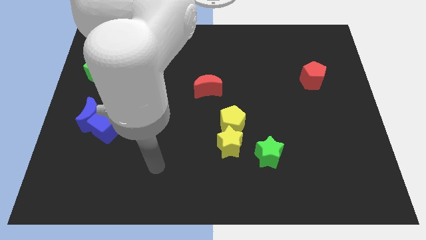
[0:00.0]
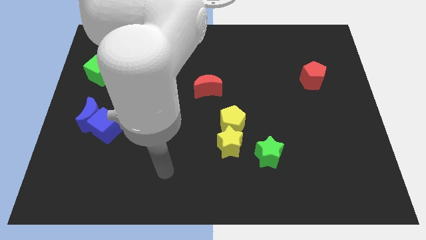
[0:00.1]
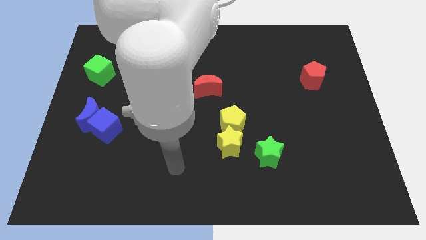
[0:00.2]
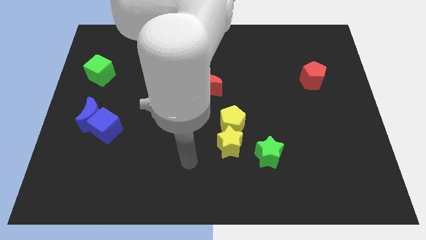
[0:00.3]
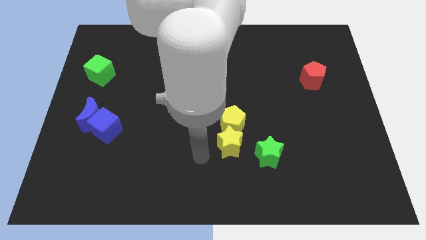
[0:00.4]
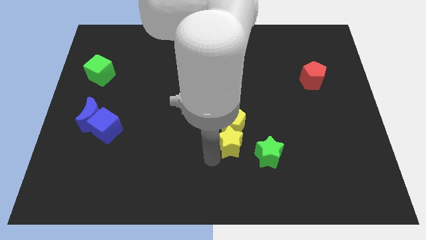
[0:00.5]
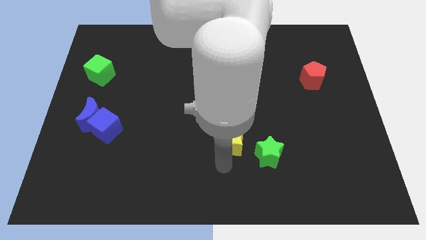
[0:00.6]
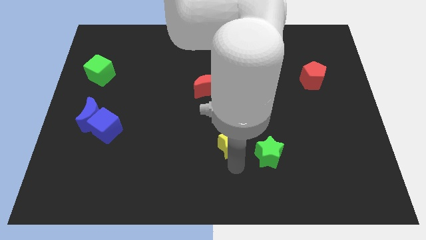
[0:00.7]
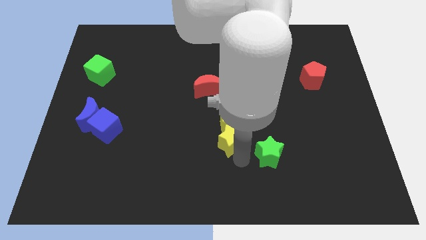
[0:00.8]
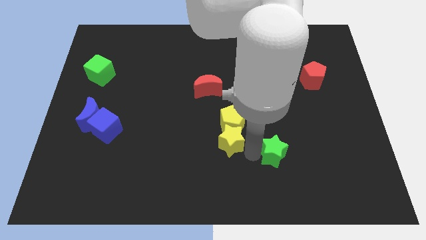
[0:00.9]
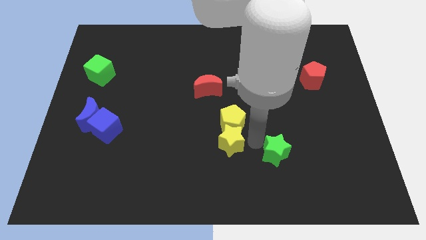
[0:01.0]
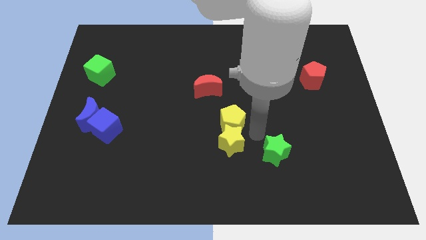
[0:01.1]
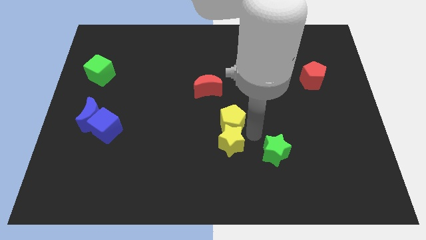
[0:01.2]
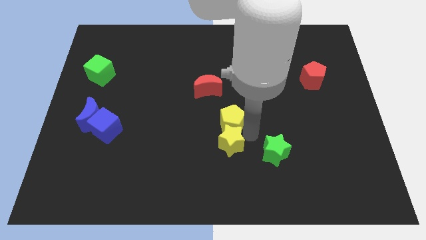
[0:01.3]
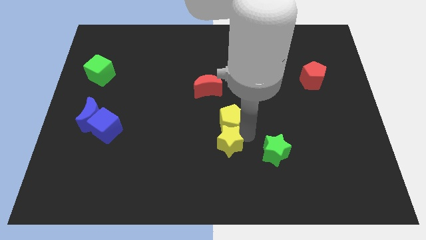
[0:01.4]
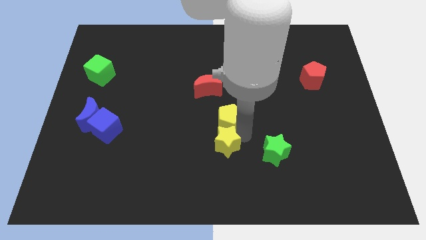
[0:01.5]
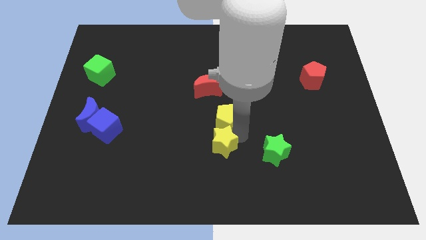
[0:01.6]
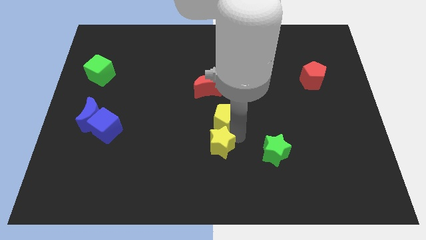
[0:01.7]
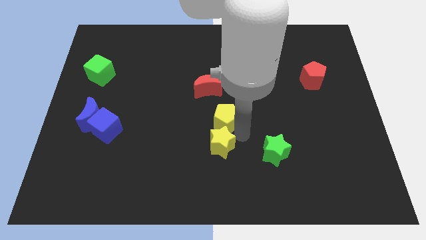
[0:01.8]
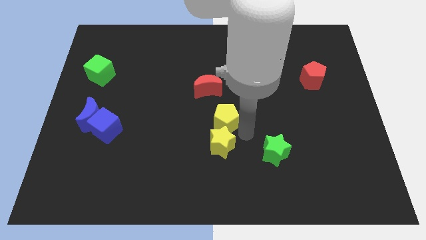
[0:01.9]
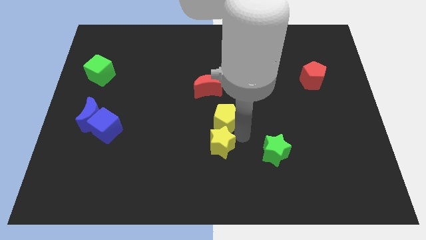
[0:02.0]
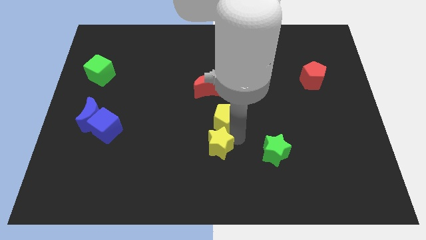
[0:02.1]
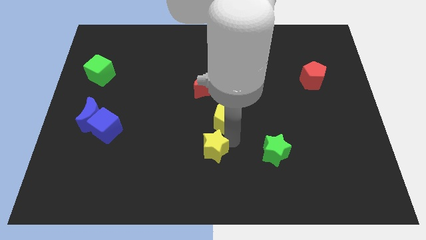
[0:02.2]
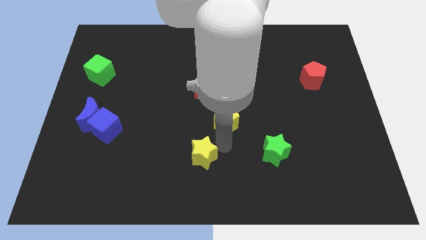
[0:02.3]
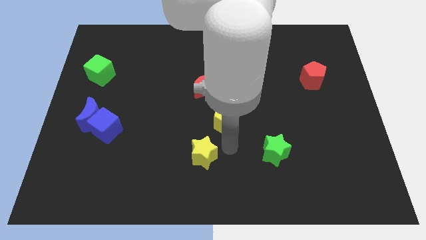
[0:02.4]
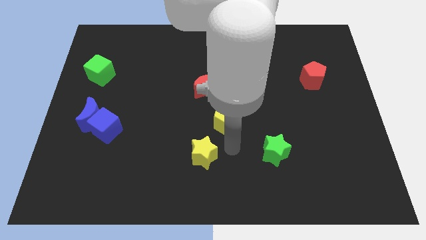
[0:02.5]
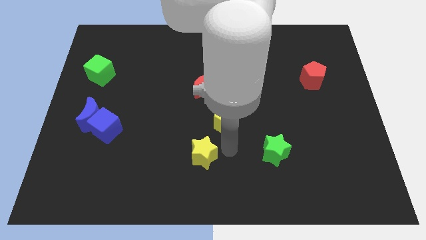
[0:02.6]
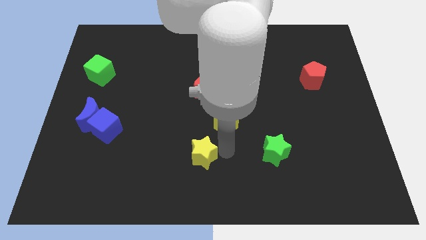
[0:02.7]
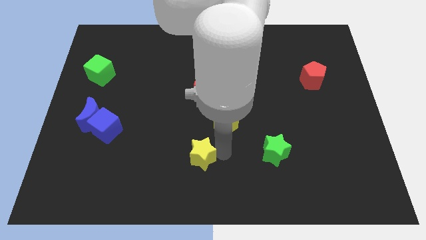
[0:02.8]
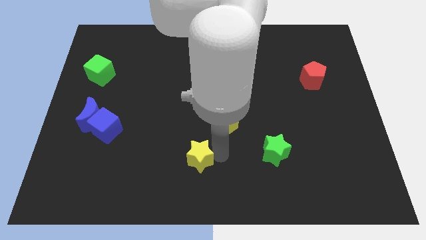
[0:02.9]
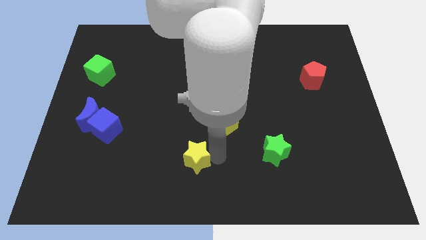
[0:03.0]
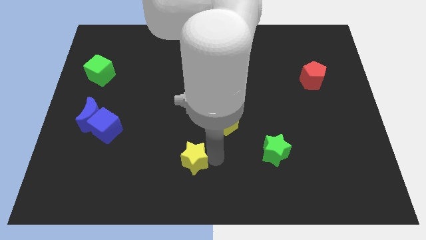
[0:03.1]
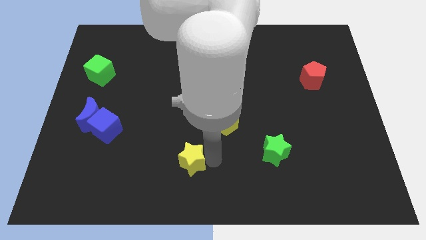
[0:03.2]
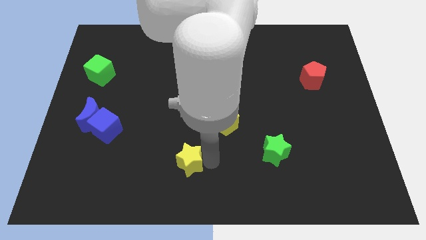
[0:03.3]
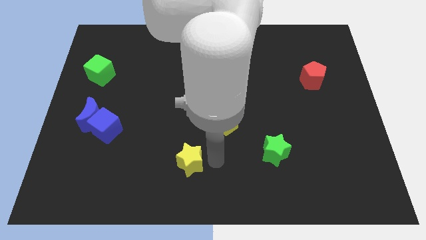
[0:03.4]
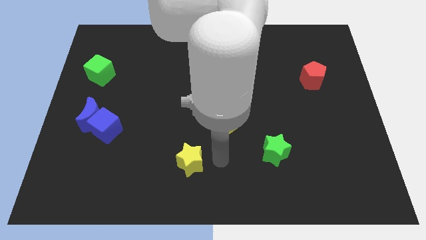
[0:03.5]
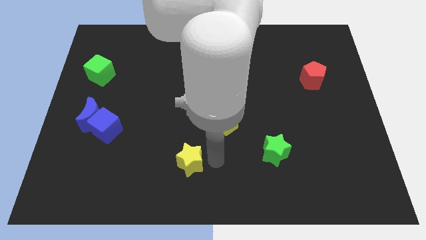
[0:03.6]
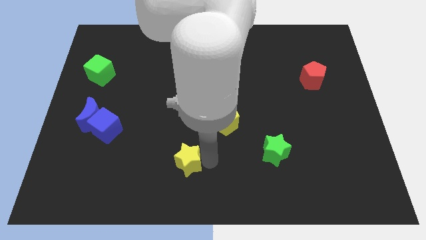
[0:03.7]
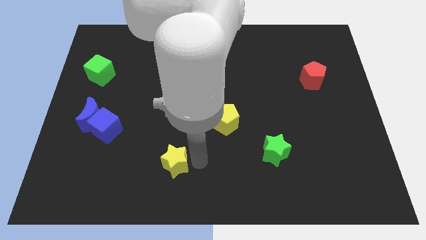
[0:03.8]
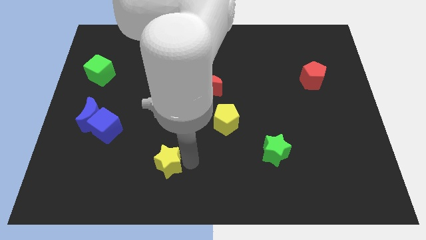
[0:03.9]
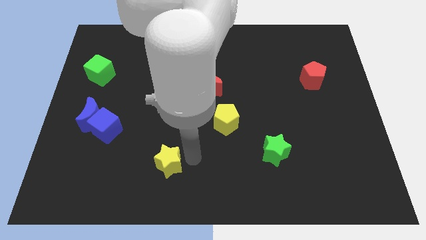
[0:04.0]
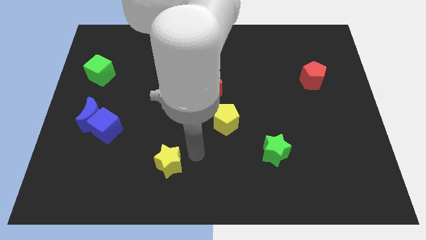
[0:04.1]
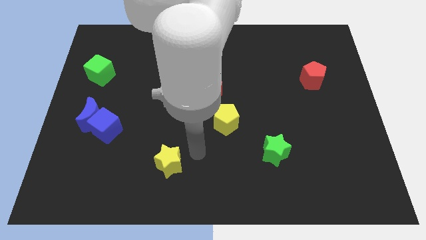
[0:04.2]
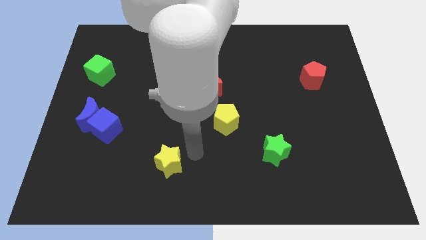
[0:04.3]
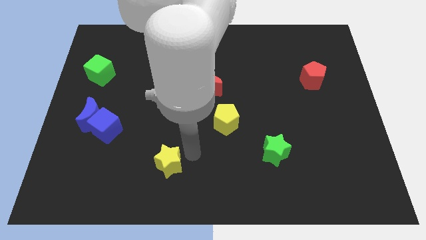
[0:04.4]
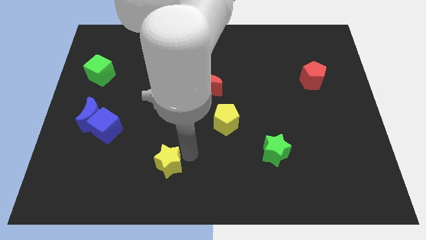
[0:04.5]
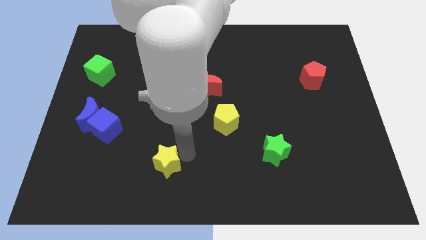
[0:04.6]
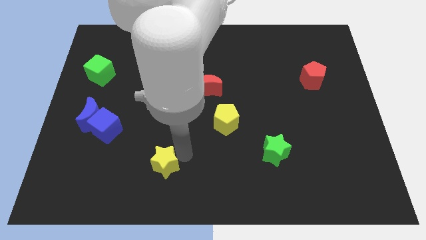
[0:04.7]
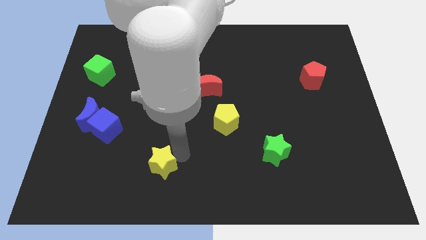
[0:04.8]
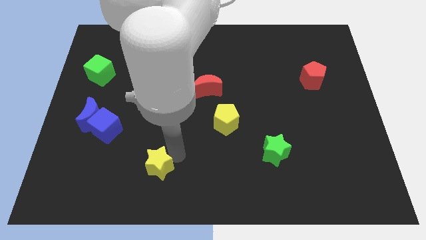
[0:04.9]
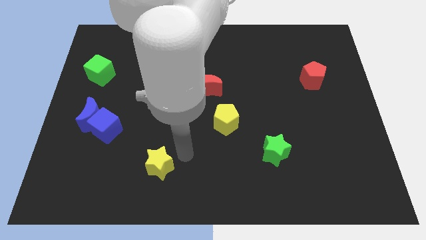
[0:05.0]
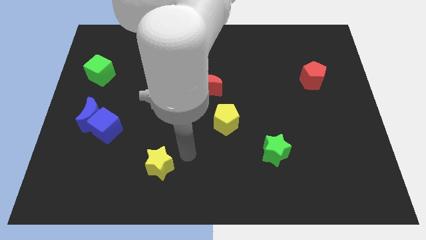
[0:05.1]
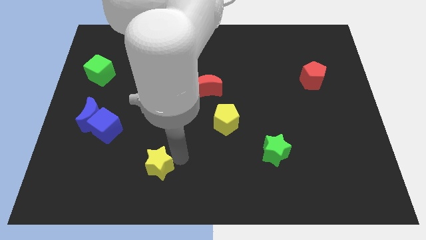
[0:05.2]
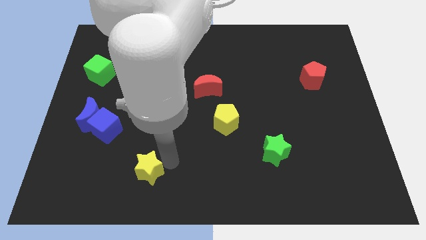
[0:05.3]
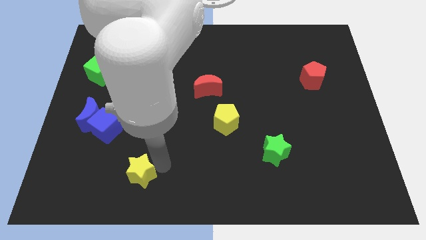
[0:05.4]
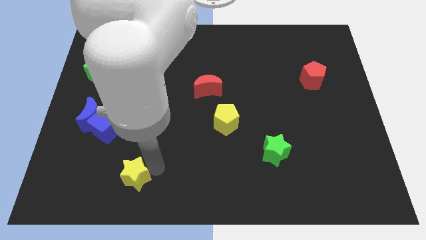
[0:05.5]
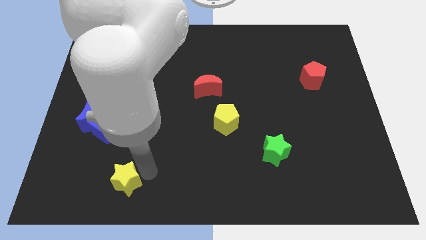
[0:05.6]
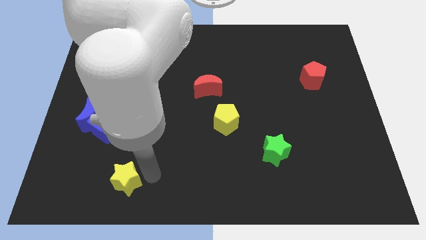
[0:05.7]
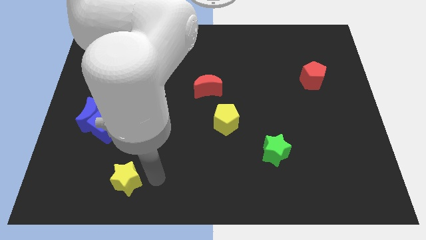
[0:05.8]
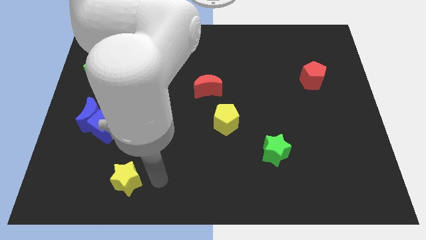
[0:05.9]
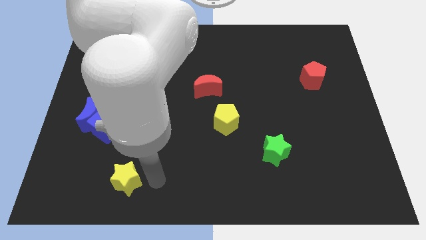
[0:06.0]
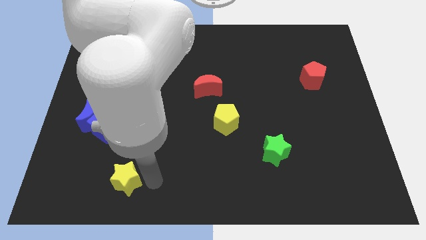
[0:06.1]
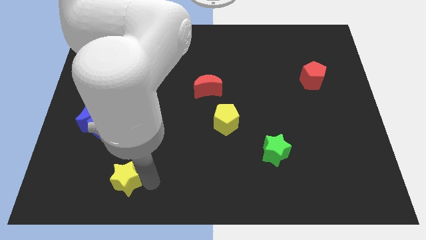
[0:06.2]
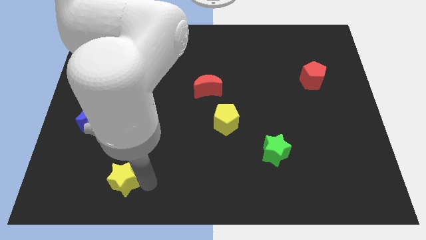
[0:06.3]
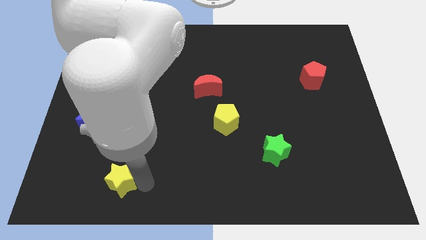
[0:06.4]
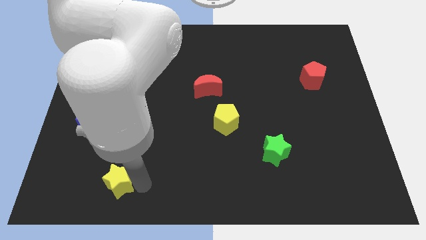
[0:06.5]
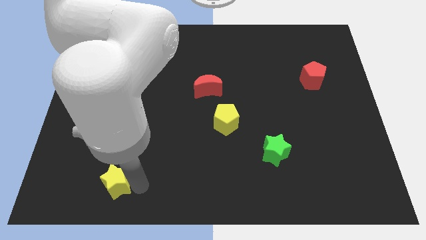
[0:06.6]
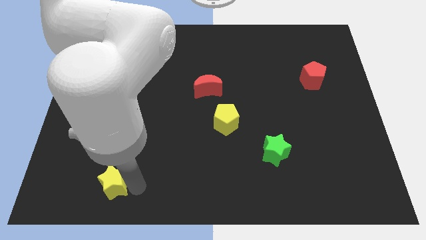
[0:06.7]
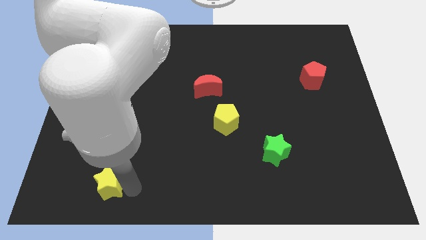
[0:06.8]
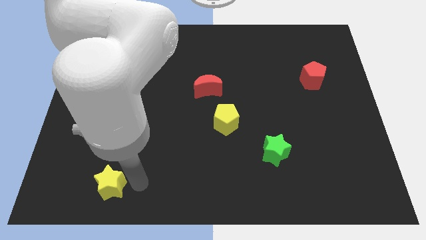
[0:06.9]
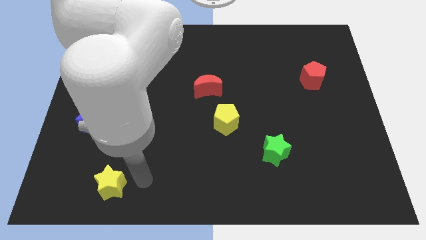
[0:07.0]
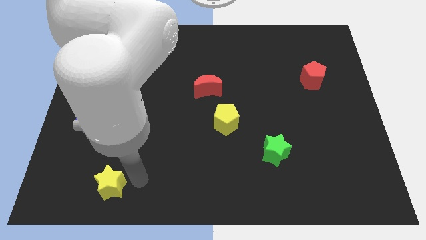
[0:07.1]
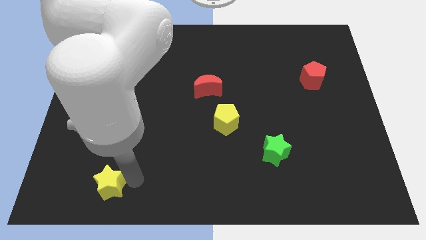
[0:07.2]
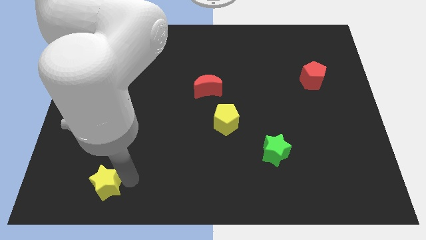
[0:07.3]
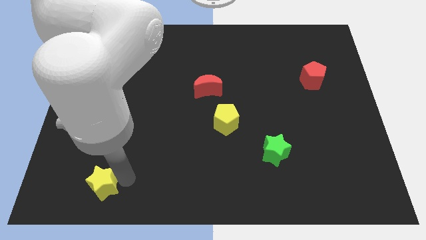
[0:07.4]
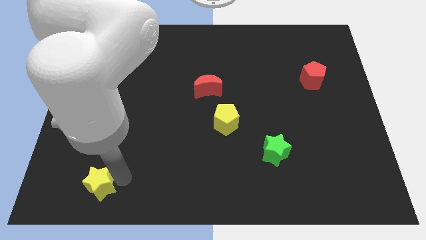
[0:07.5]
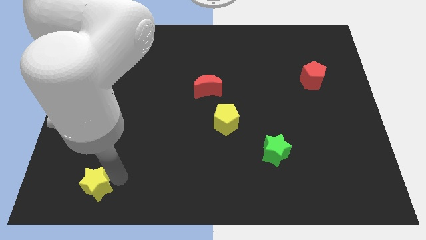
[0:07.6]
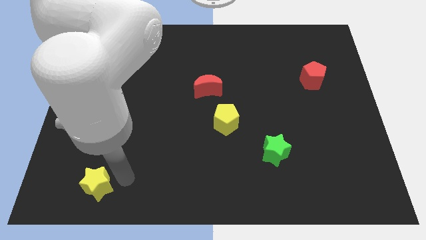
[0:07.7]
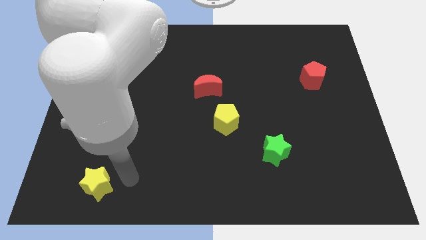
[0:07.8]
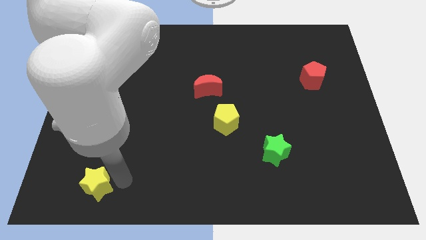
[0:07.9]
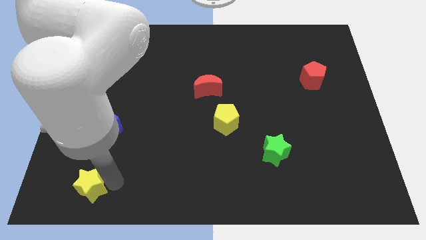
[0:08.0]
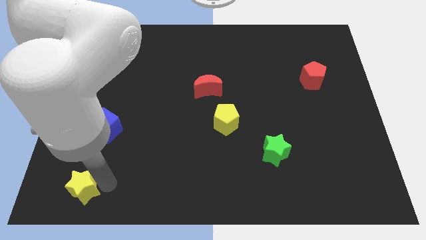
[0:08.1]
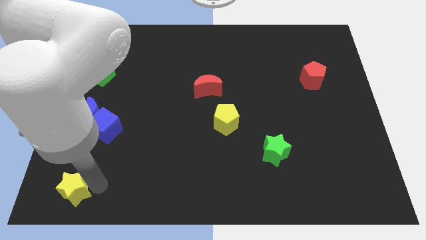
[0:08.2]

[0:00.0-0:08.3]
put the yellow star to the bottom left corner
